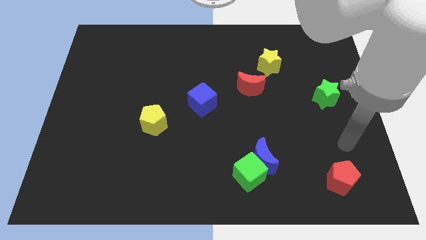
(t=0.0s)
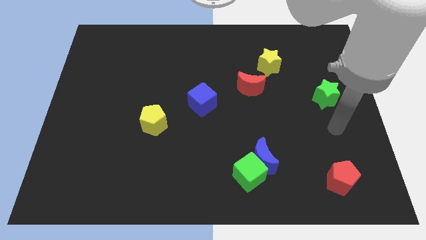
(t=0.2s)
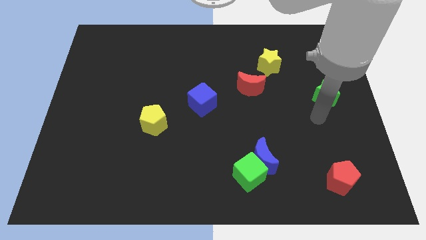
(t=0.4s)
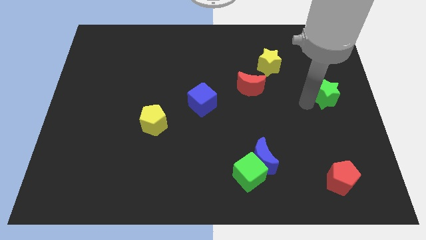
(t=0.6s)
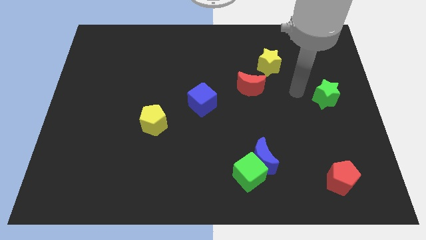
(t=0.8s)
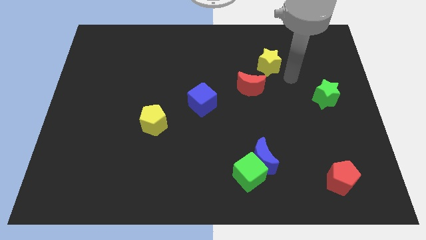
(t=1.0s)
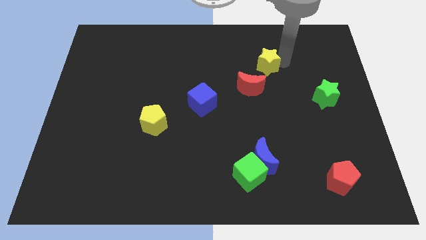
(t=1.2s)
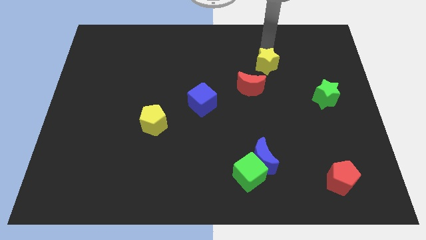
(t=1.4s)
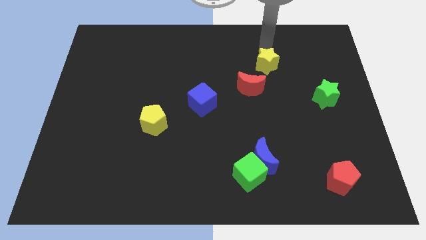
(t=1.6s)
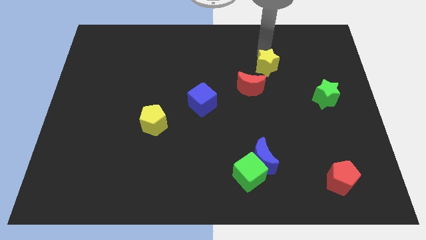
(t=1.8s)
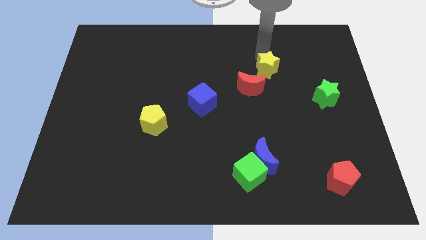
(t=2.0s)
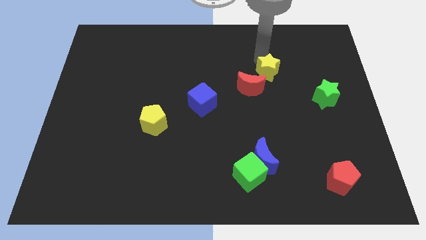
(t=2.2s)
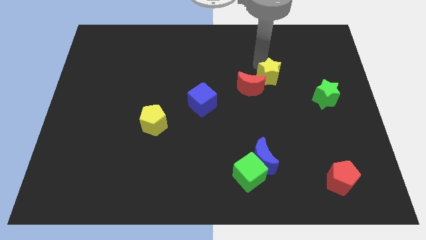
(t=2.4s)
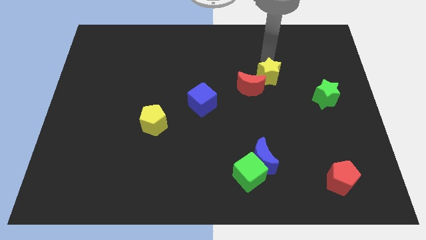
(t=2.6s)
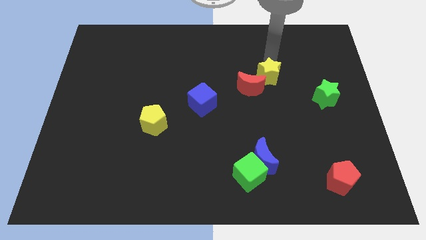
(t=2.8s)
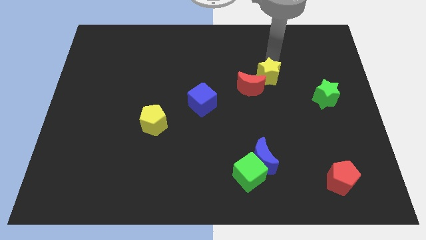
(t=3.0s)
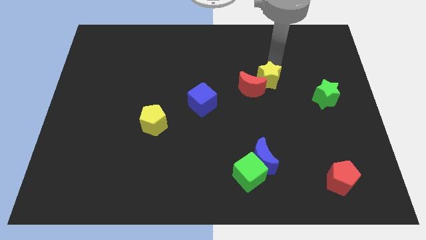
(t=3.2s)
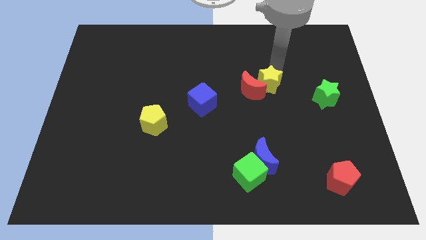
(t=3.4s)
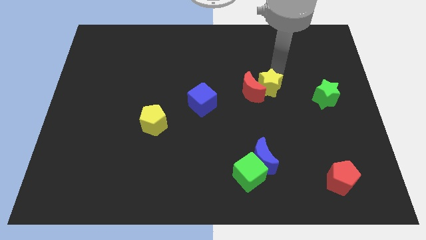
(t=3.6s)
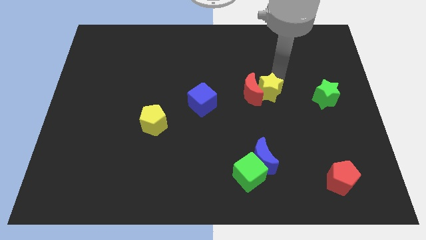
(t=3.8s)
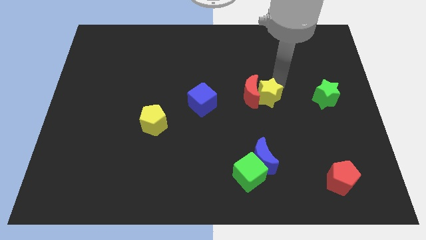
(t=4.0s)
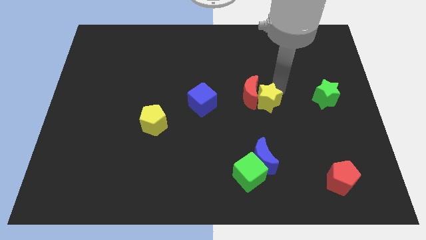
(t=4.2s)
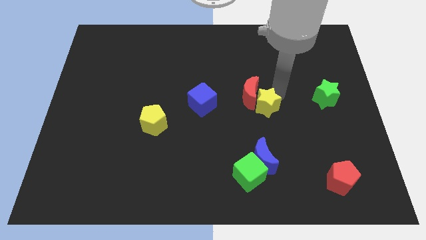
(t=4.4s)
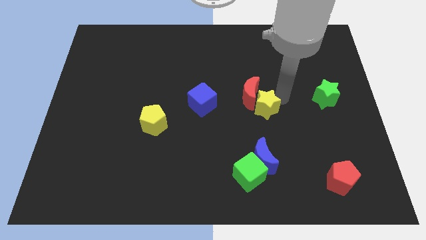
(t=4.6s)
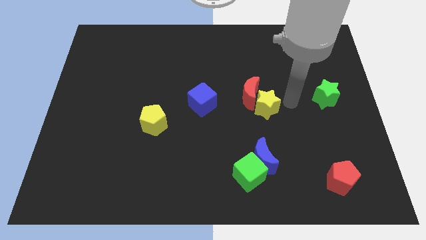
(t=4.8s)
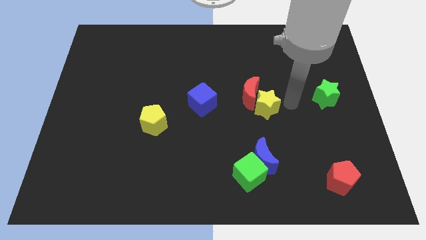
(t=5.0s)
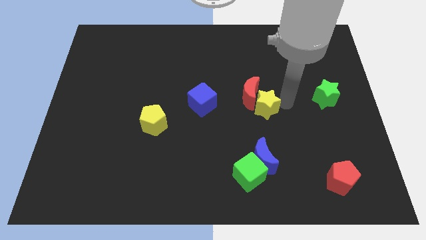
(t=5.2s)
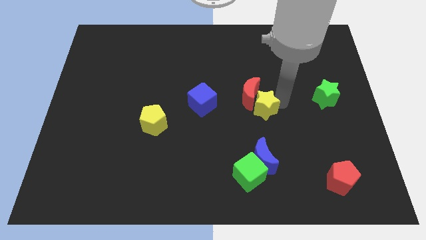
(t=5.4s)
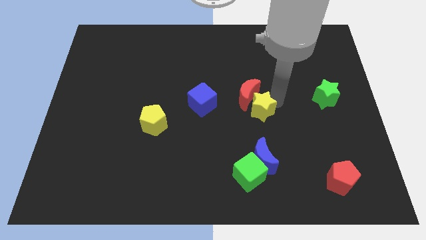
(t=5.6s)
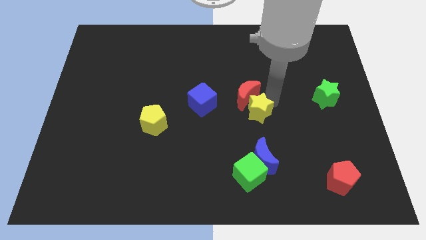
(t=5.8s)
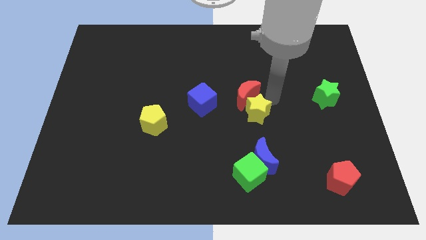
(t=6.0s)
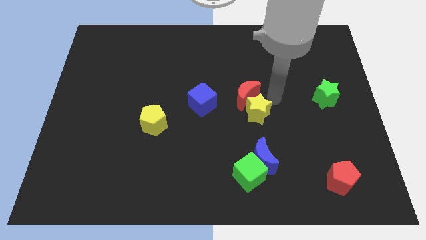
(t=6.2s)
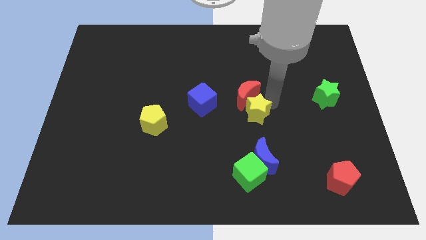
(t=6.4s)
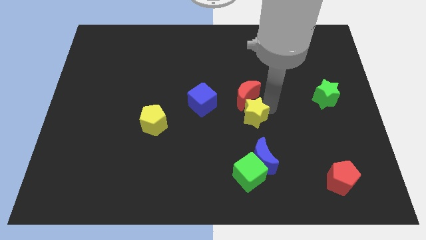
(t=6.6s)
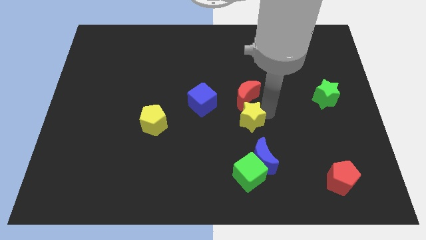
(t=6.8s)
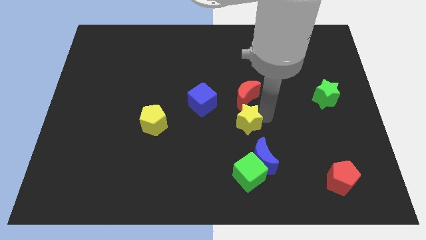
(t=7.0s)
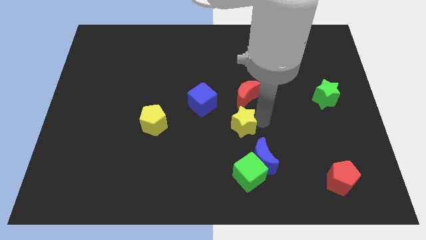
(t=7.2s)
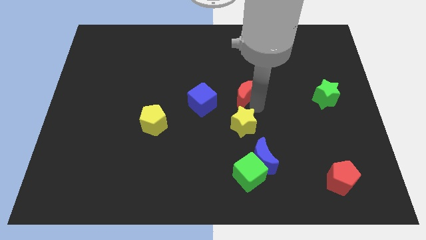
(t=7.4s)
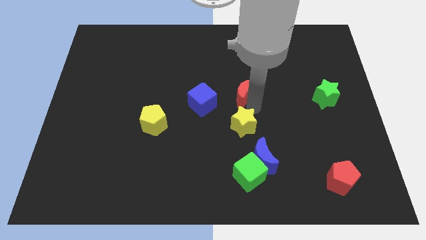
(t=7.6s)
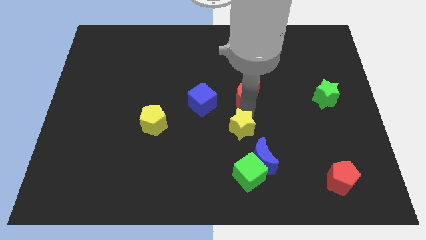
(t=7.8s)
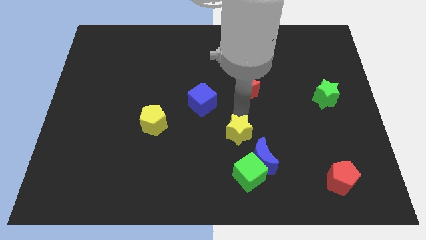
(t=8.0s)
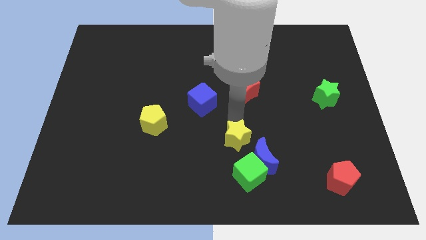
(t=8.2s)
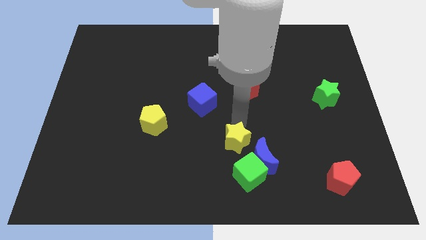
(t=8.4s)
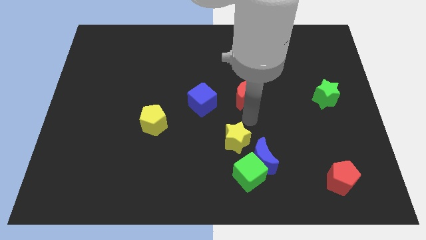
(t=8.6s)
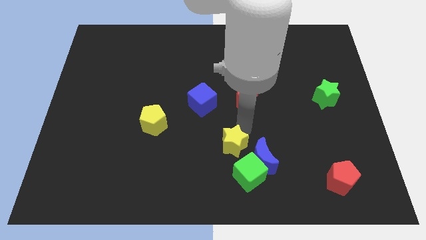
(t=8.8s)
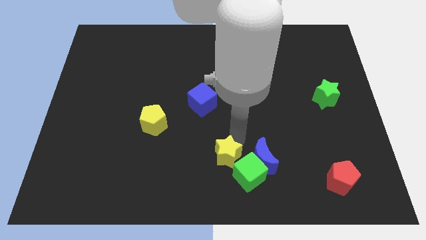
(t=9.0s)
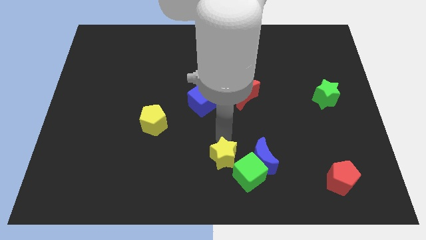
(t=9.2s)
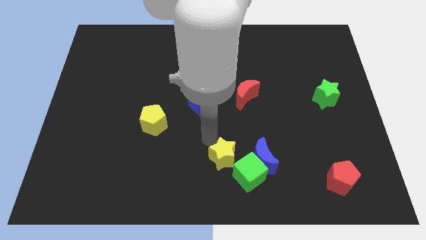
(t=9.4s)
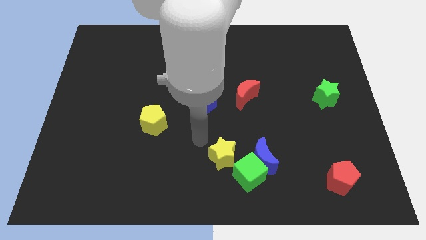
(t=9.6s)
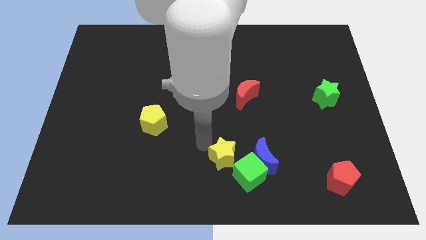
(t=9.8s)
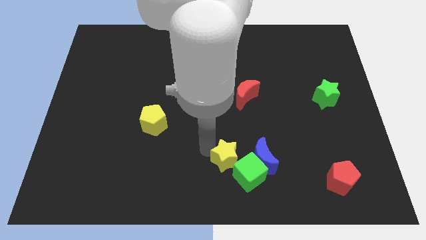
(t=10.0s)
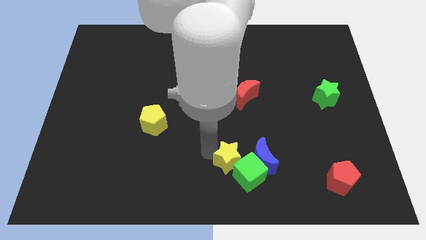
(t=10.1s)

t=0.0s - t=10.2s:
push the yellow star to the green cube

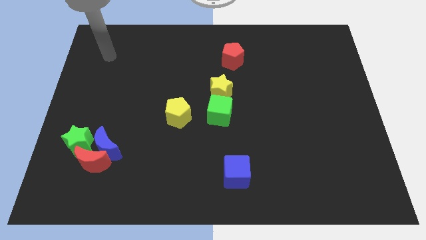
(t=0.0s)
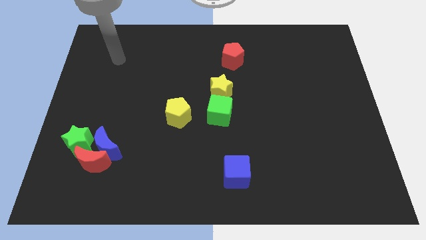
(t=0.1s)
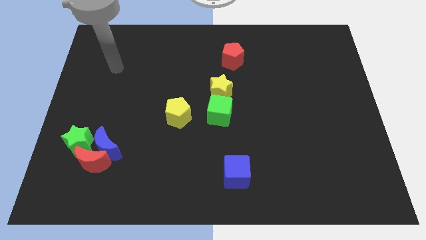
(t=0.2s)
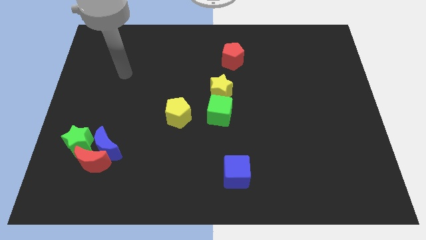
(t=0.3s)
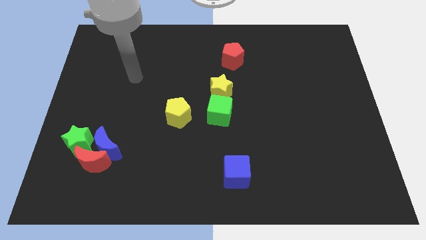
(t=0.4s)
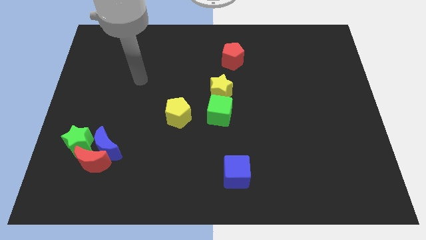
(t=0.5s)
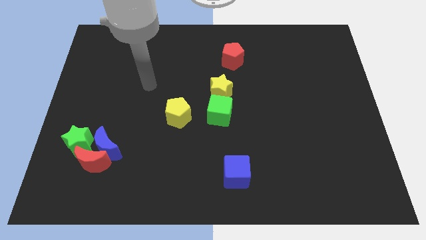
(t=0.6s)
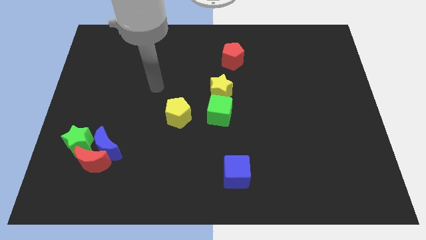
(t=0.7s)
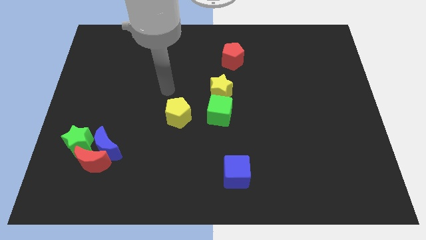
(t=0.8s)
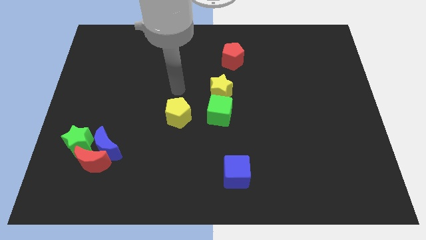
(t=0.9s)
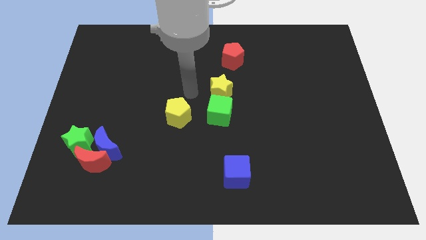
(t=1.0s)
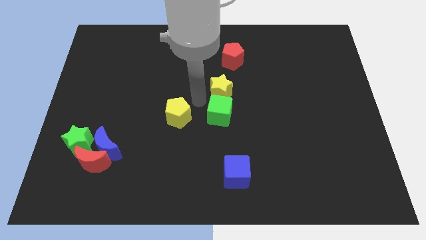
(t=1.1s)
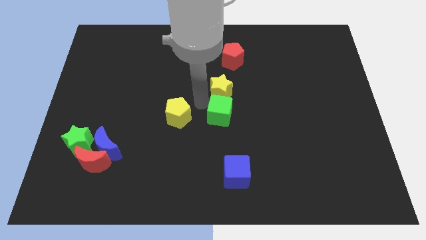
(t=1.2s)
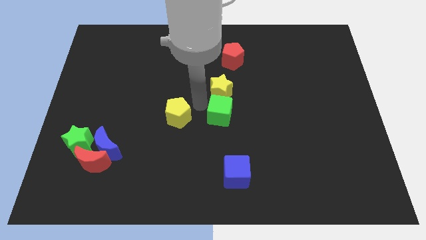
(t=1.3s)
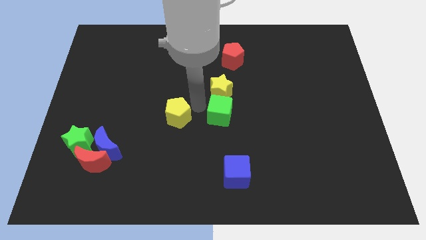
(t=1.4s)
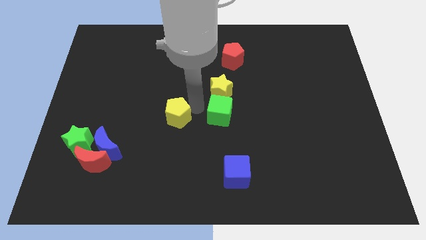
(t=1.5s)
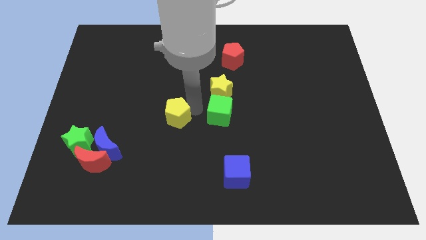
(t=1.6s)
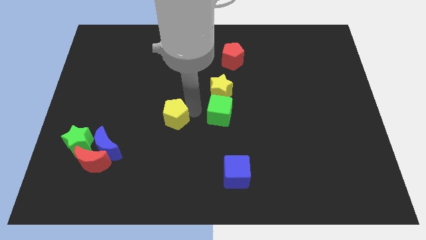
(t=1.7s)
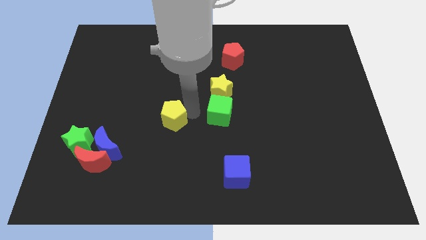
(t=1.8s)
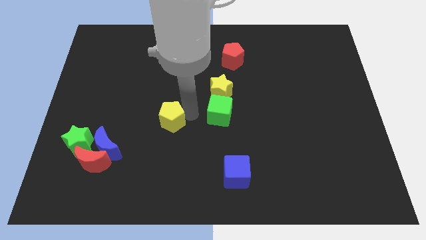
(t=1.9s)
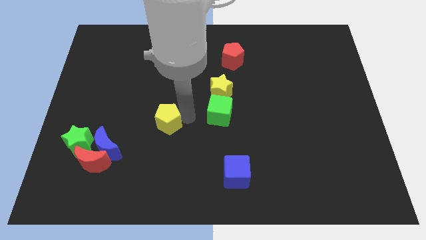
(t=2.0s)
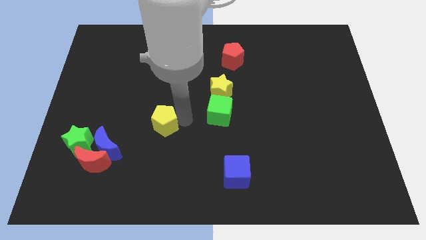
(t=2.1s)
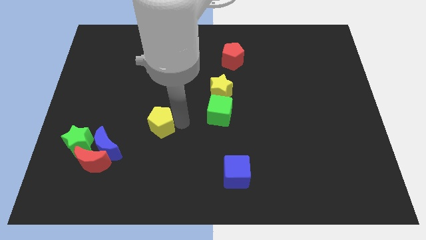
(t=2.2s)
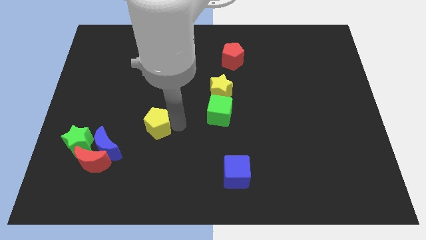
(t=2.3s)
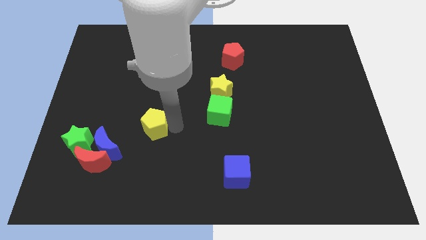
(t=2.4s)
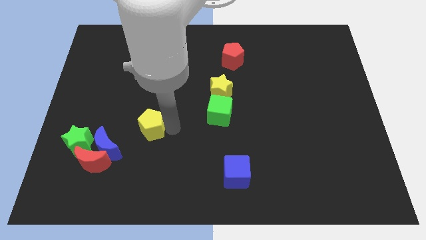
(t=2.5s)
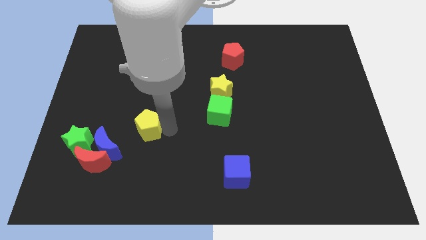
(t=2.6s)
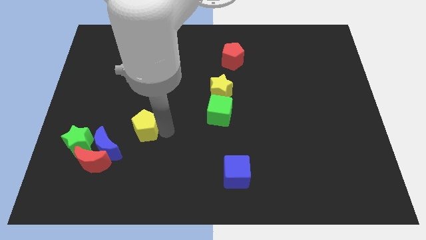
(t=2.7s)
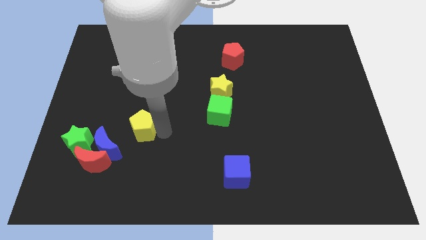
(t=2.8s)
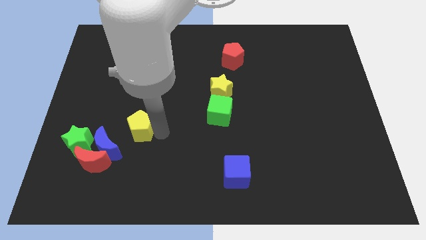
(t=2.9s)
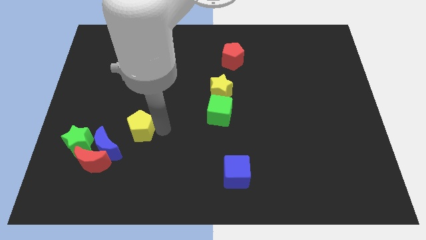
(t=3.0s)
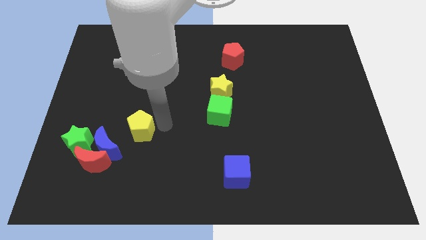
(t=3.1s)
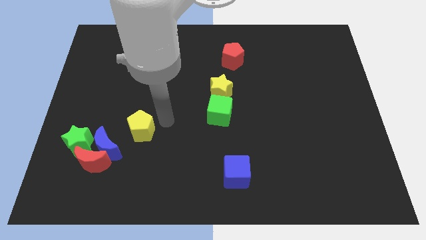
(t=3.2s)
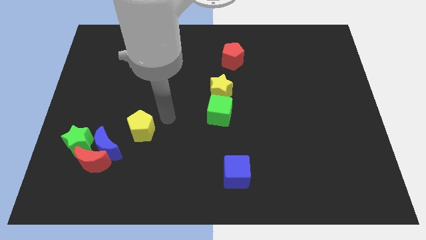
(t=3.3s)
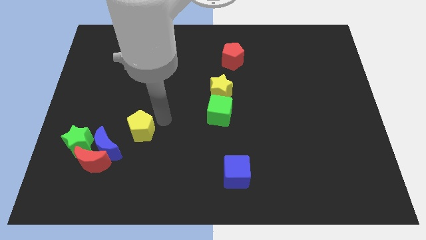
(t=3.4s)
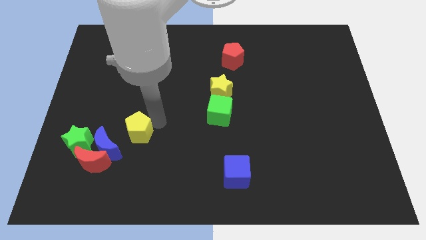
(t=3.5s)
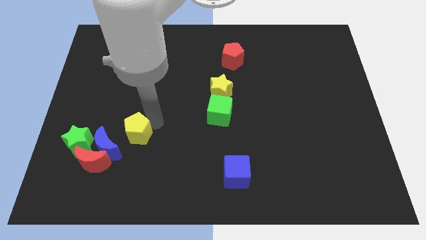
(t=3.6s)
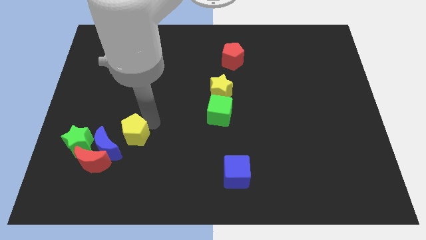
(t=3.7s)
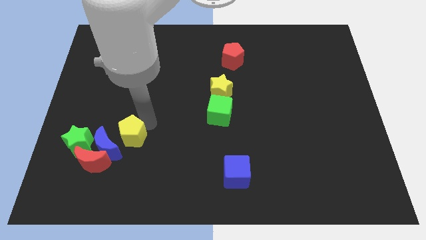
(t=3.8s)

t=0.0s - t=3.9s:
put the yellow pentagon towards the blue moon
